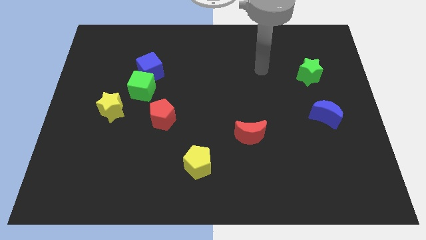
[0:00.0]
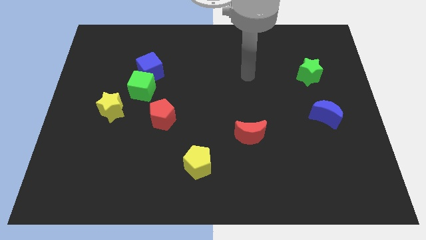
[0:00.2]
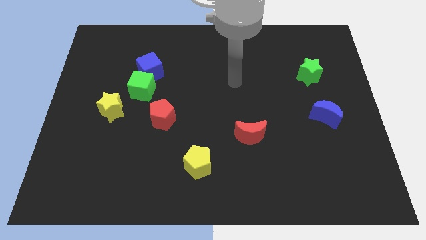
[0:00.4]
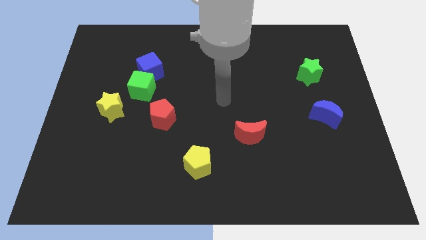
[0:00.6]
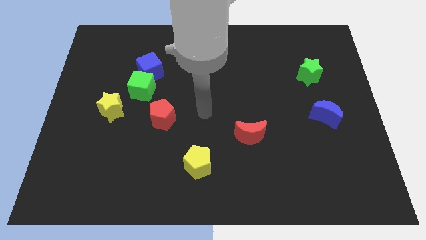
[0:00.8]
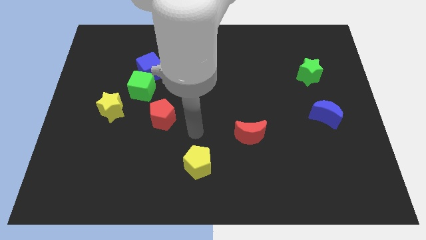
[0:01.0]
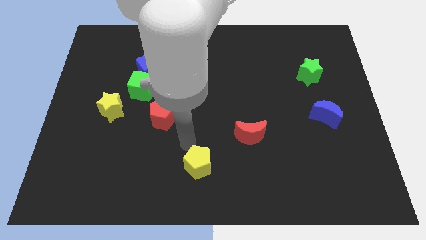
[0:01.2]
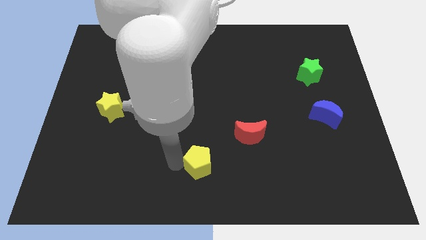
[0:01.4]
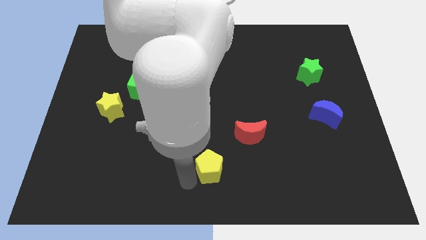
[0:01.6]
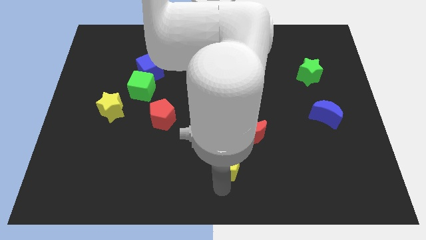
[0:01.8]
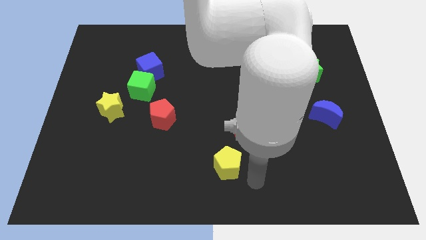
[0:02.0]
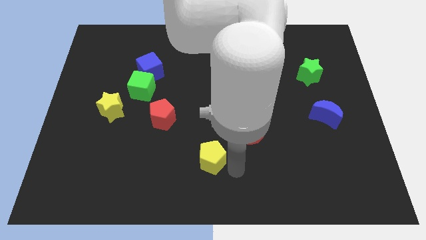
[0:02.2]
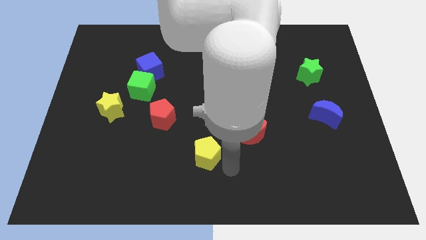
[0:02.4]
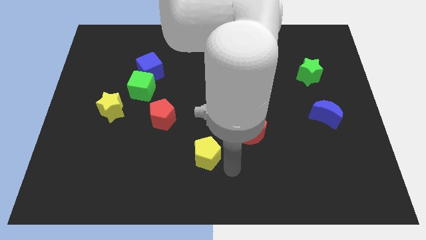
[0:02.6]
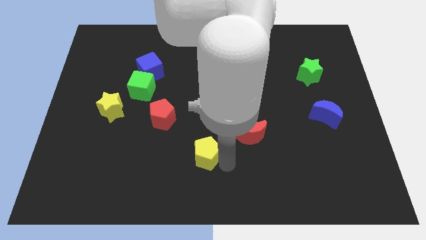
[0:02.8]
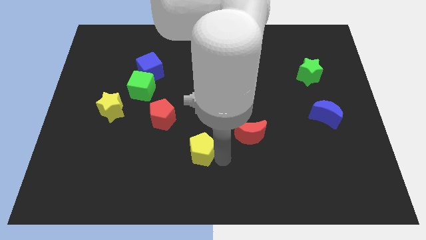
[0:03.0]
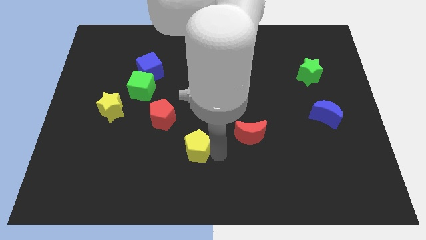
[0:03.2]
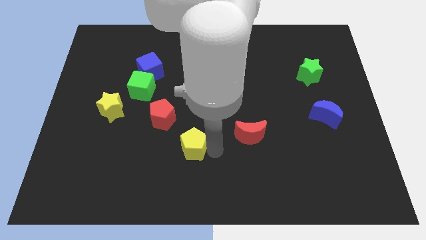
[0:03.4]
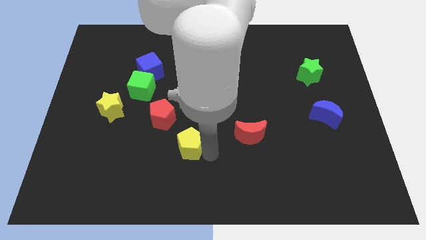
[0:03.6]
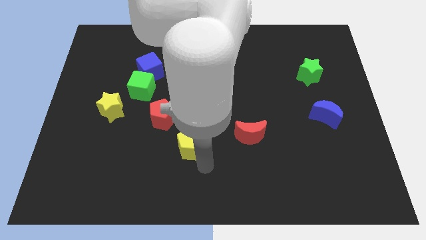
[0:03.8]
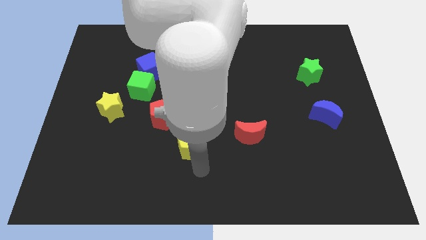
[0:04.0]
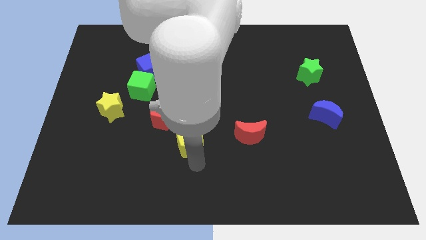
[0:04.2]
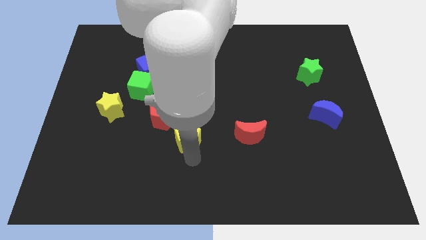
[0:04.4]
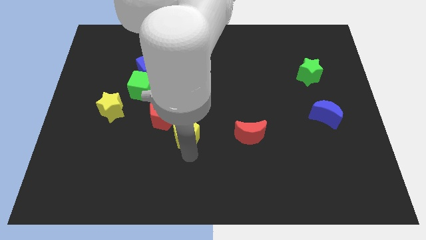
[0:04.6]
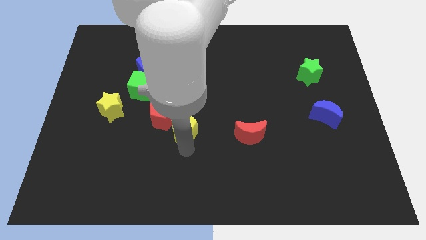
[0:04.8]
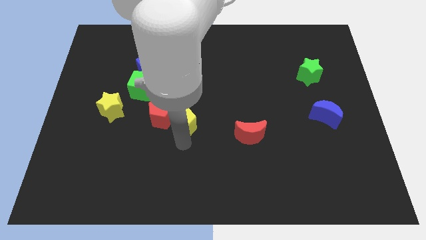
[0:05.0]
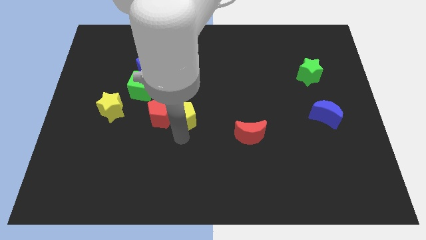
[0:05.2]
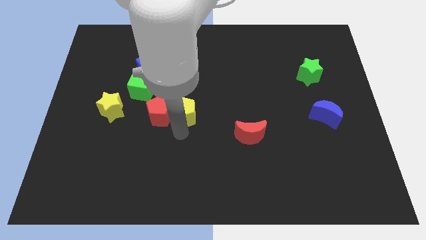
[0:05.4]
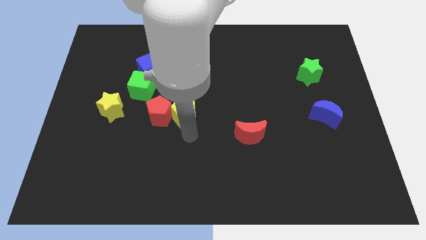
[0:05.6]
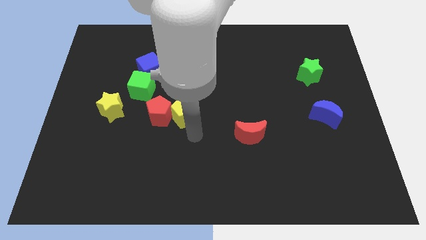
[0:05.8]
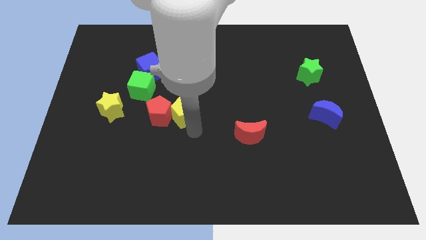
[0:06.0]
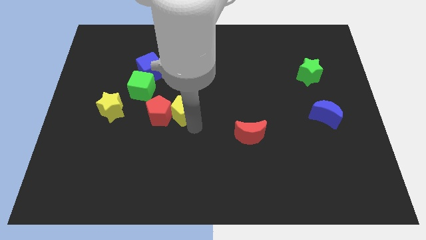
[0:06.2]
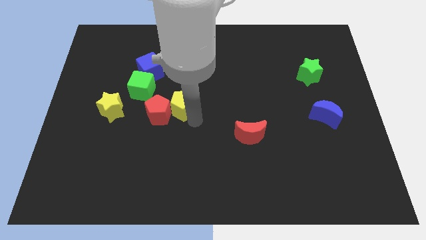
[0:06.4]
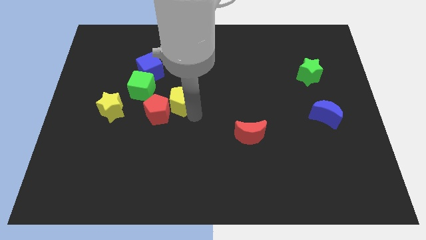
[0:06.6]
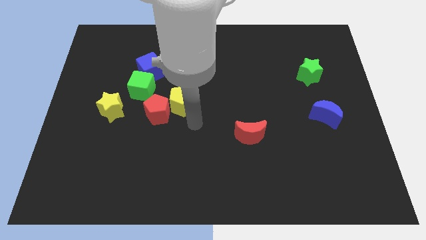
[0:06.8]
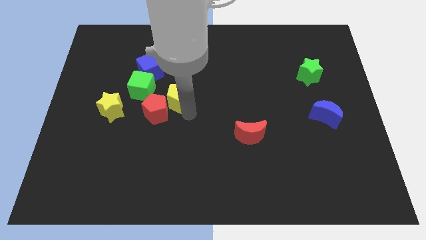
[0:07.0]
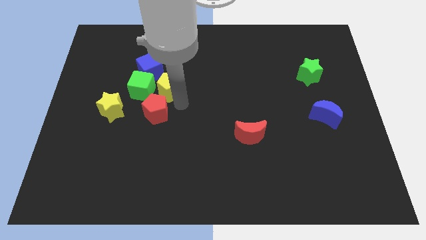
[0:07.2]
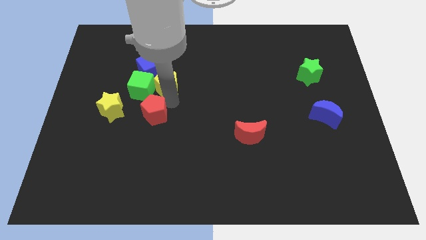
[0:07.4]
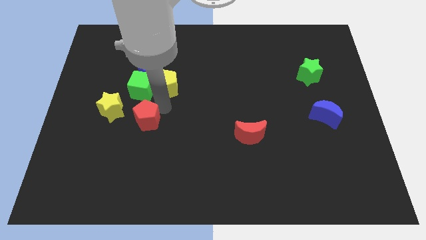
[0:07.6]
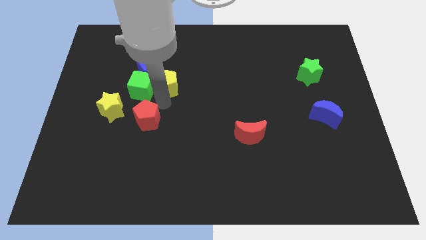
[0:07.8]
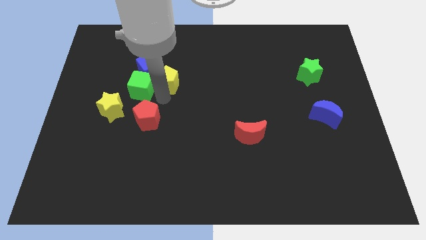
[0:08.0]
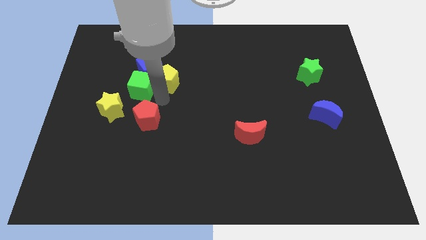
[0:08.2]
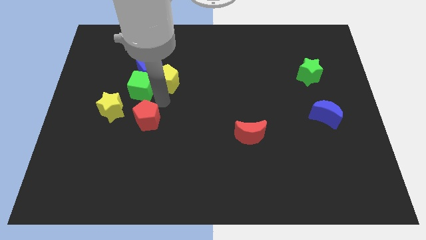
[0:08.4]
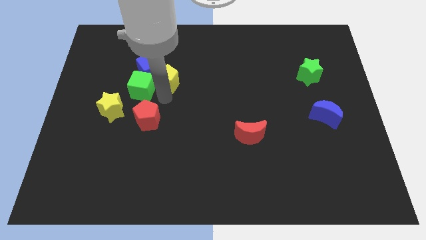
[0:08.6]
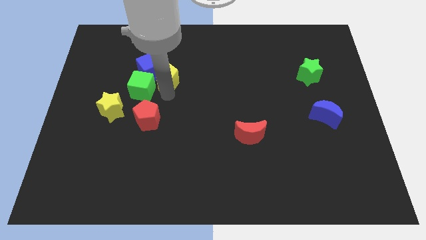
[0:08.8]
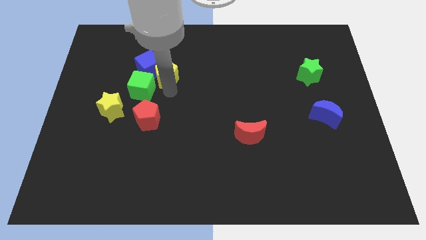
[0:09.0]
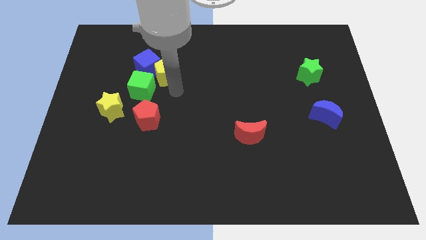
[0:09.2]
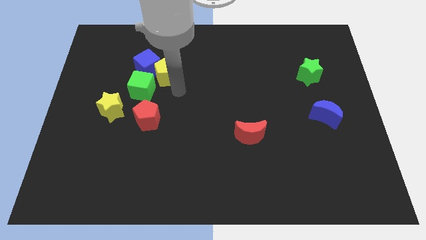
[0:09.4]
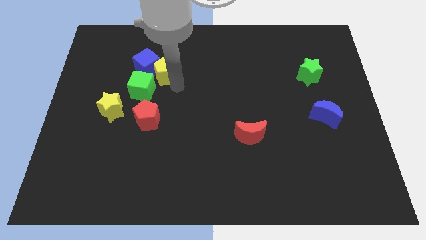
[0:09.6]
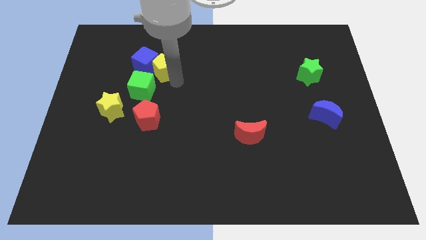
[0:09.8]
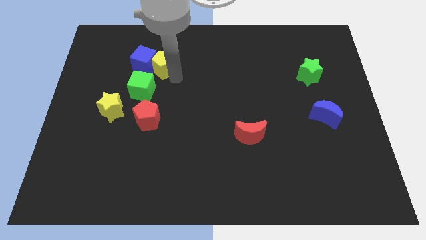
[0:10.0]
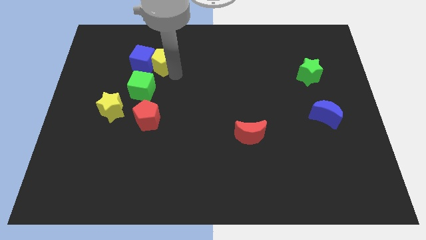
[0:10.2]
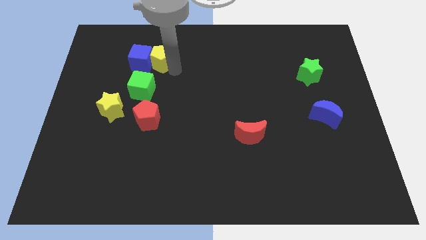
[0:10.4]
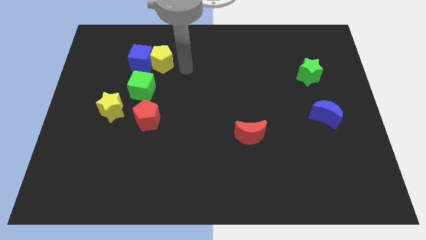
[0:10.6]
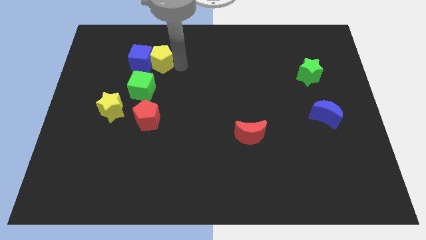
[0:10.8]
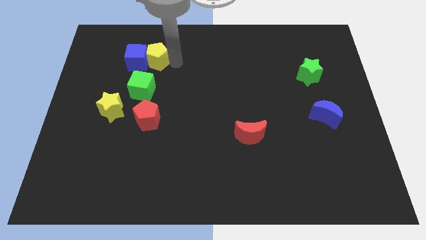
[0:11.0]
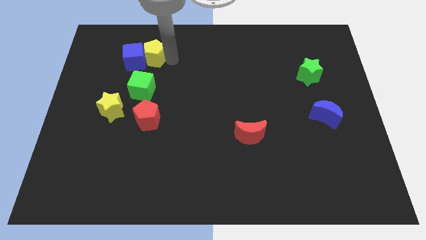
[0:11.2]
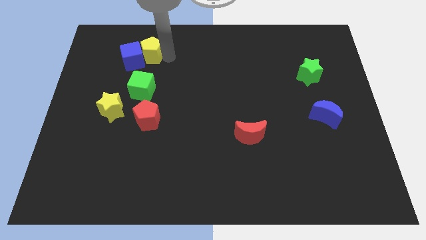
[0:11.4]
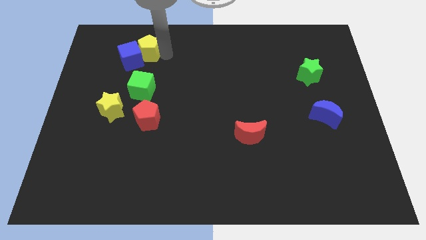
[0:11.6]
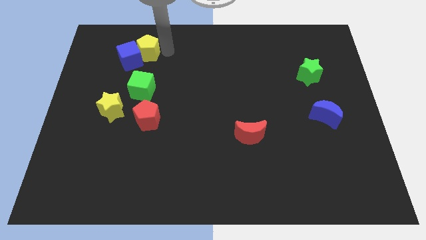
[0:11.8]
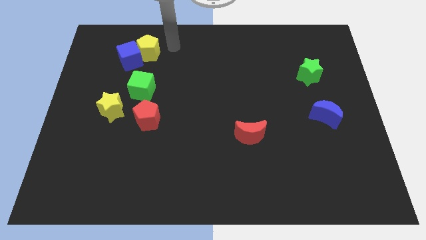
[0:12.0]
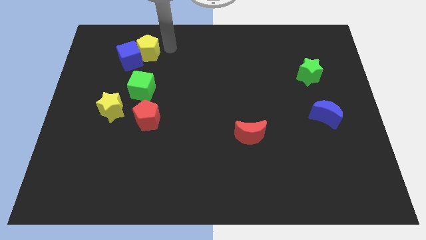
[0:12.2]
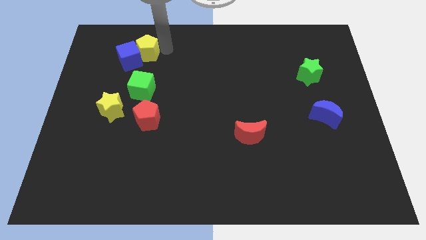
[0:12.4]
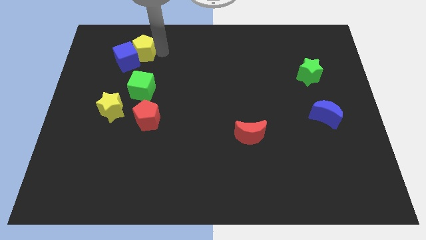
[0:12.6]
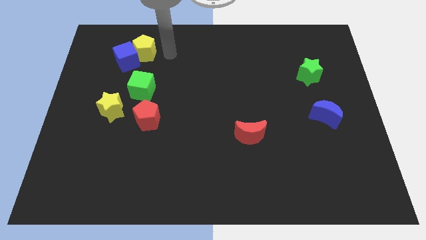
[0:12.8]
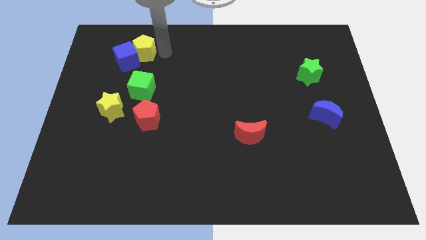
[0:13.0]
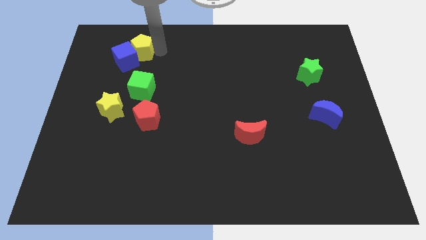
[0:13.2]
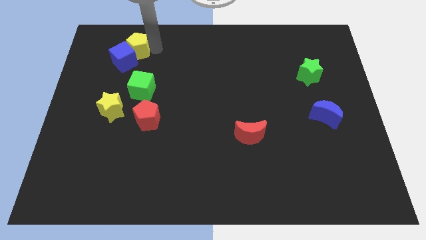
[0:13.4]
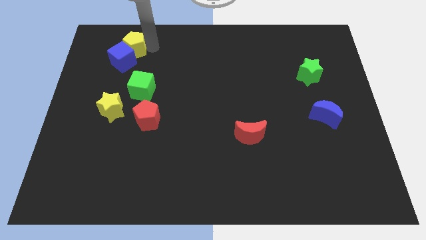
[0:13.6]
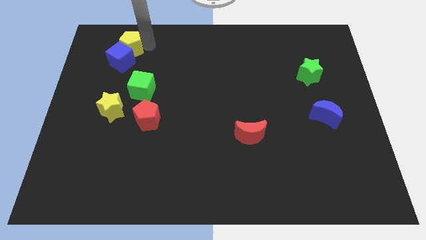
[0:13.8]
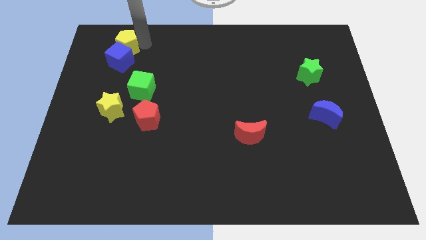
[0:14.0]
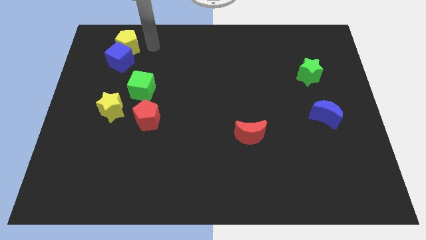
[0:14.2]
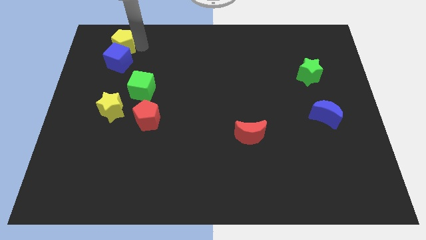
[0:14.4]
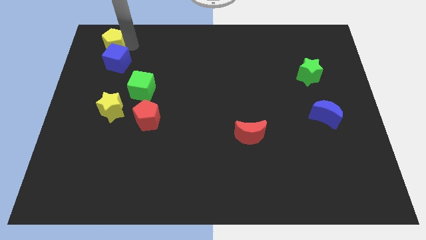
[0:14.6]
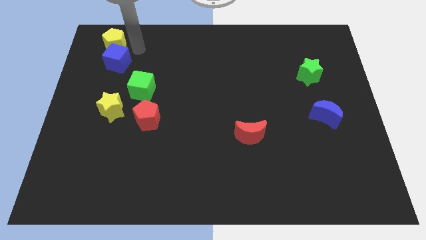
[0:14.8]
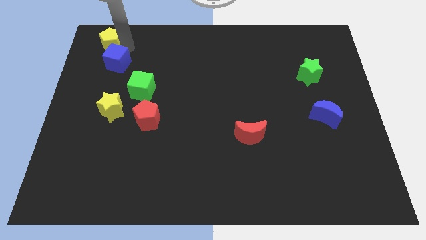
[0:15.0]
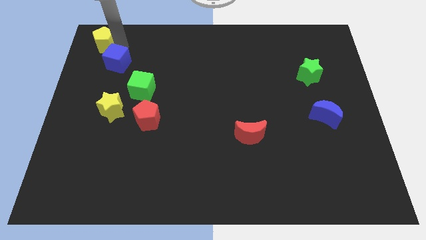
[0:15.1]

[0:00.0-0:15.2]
put the yellow pentagon to the top left of the board
